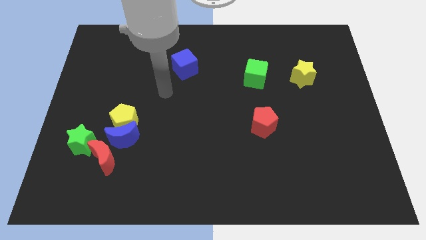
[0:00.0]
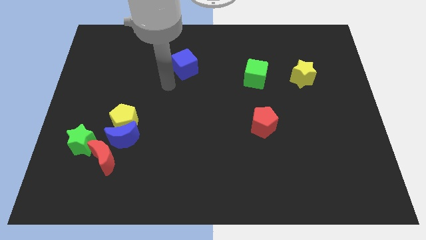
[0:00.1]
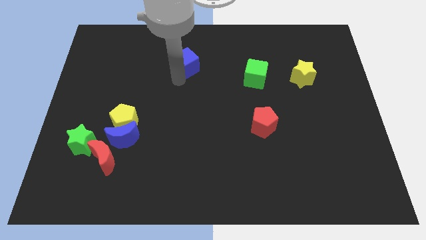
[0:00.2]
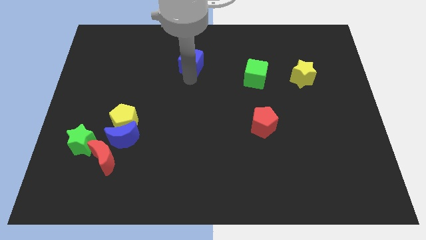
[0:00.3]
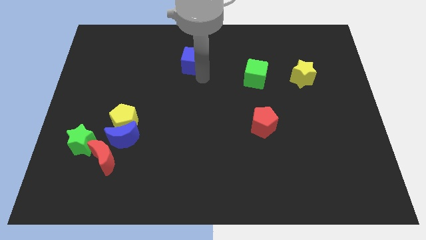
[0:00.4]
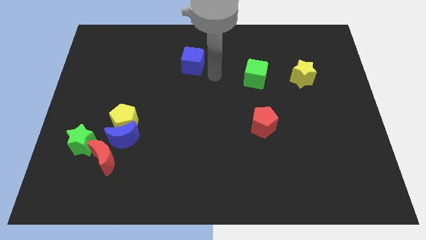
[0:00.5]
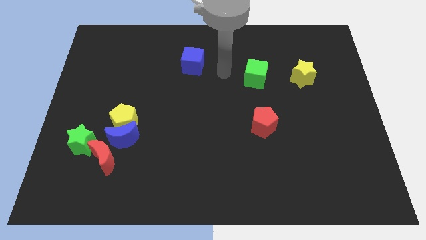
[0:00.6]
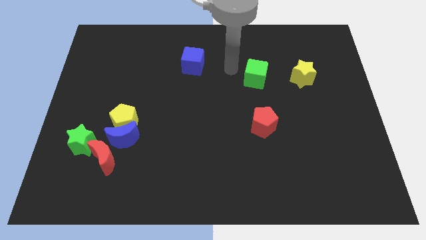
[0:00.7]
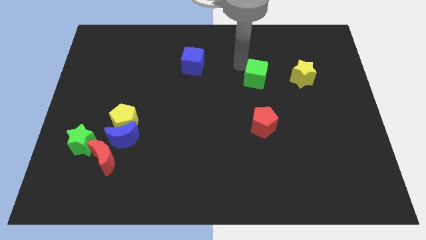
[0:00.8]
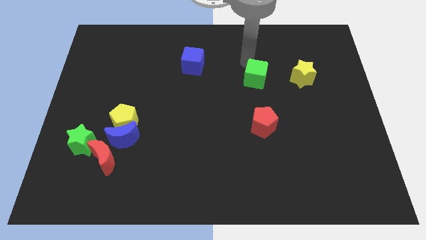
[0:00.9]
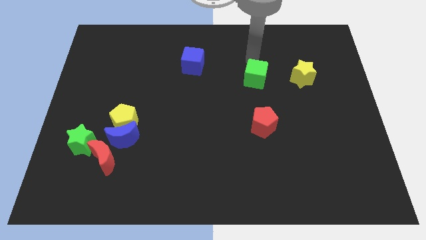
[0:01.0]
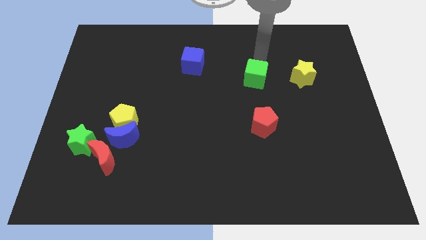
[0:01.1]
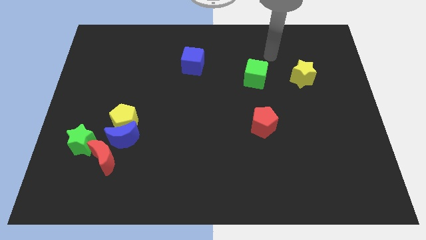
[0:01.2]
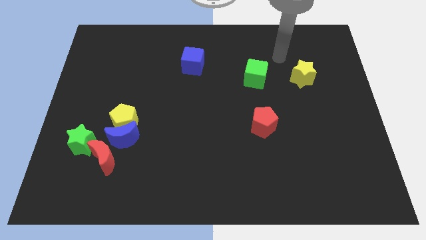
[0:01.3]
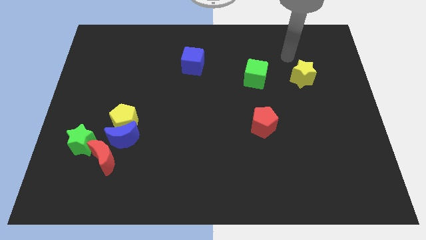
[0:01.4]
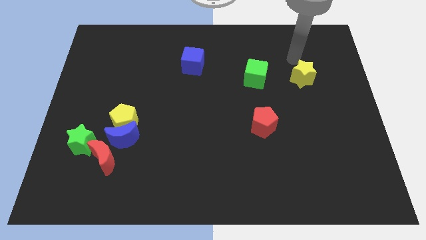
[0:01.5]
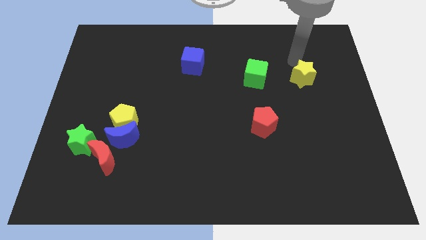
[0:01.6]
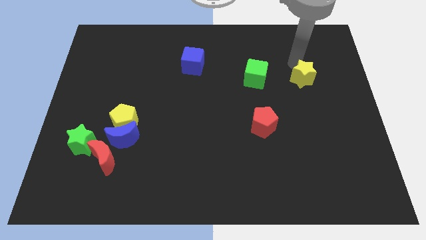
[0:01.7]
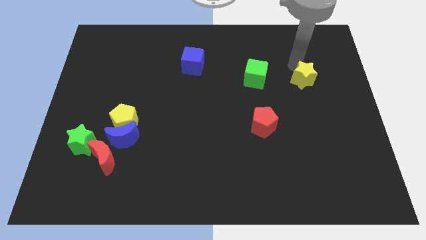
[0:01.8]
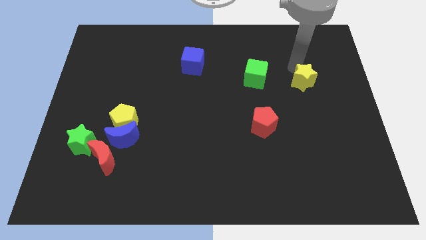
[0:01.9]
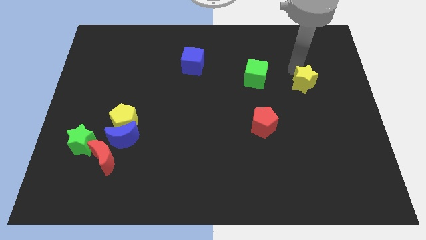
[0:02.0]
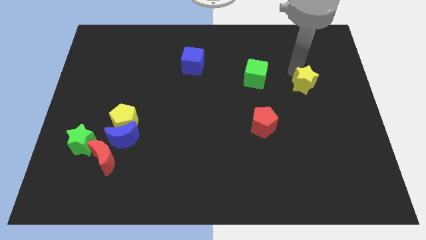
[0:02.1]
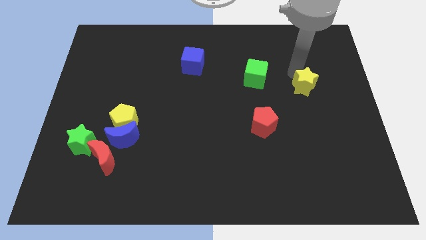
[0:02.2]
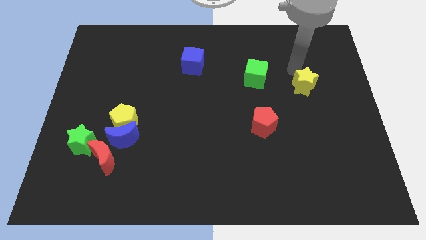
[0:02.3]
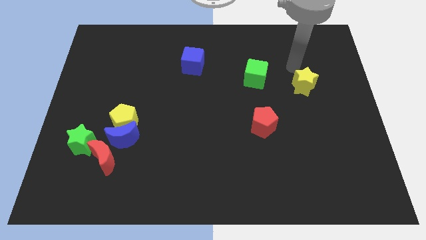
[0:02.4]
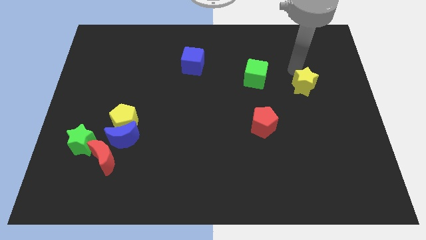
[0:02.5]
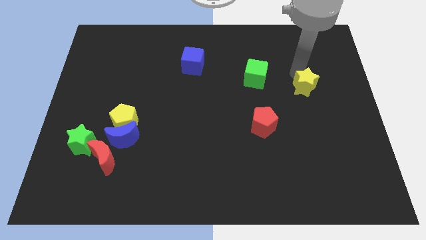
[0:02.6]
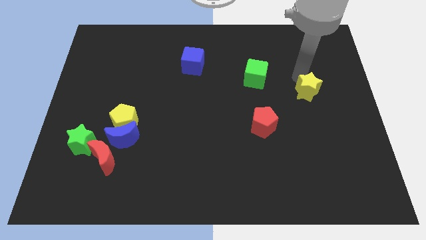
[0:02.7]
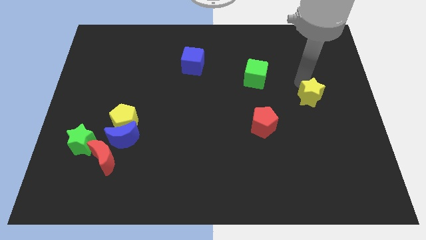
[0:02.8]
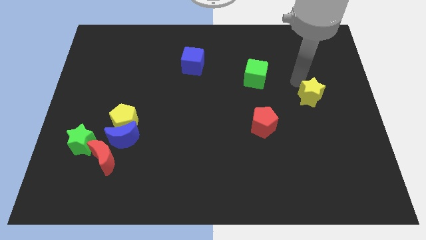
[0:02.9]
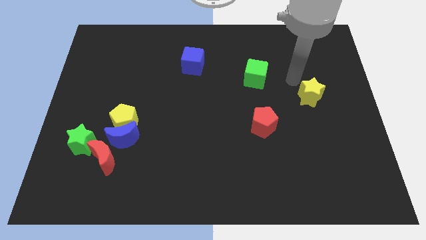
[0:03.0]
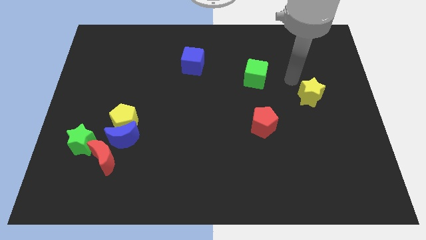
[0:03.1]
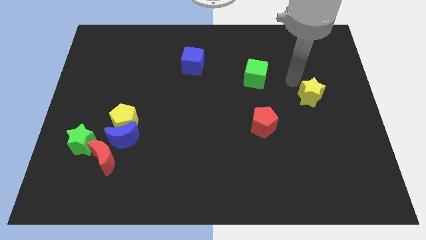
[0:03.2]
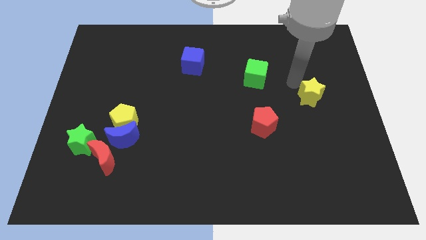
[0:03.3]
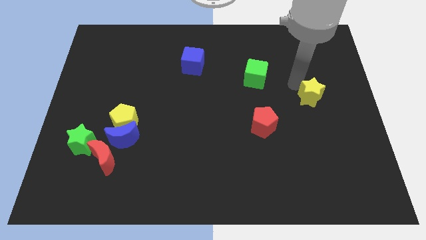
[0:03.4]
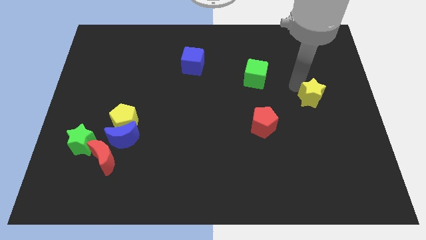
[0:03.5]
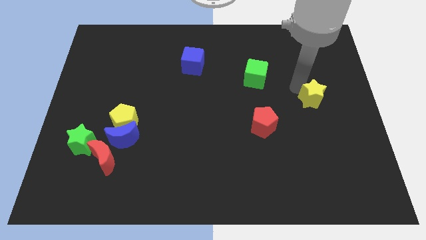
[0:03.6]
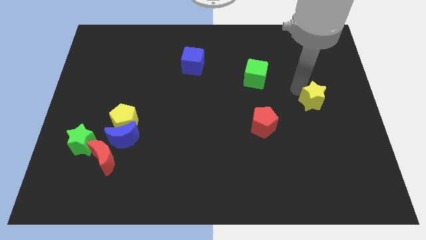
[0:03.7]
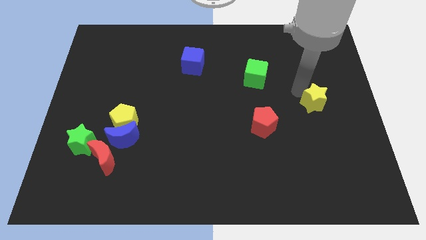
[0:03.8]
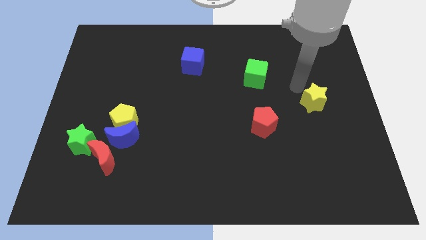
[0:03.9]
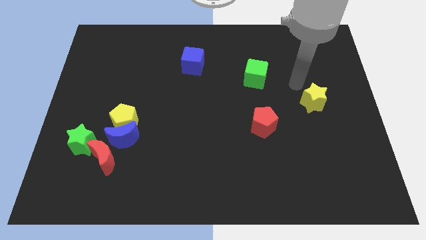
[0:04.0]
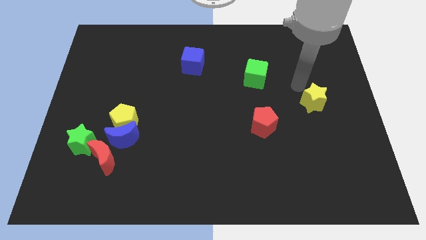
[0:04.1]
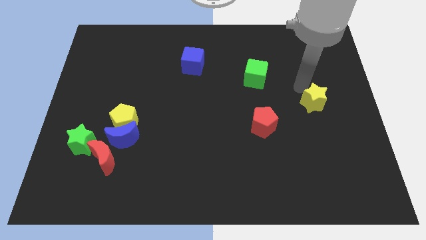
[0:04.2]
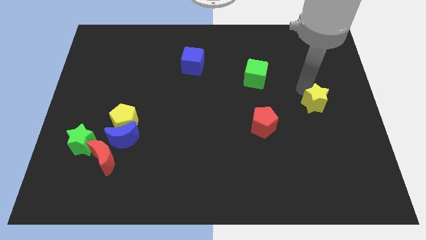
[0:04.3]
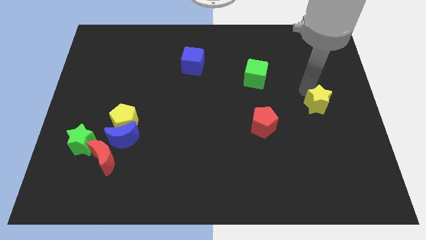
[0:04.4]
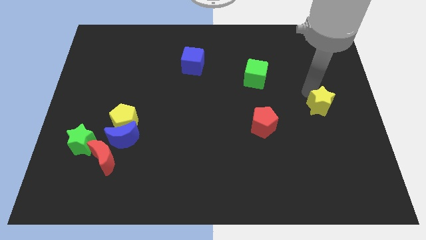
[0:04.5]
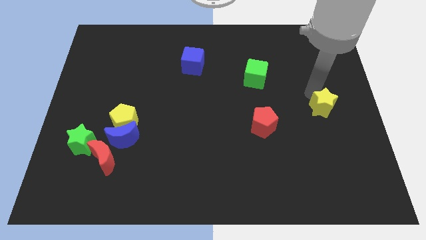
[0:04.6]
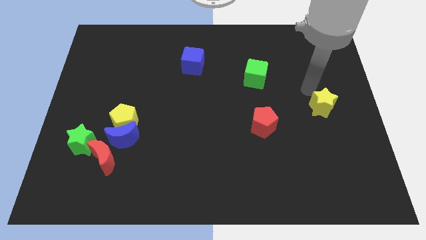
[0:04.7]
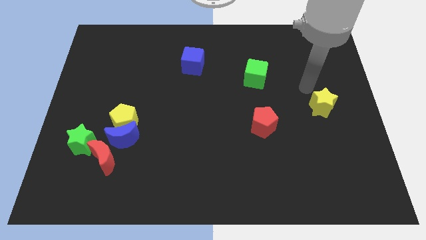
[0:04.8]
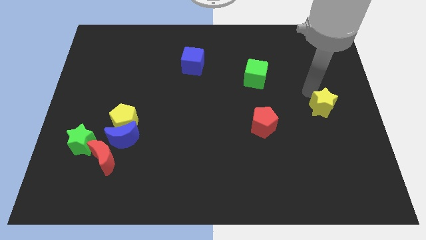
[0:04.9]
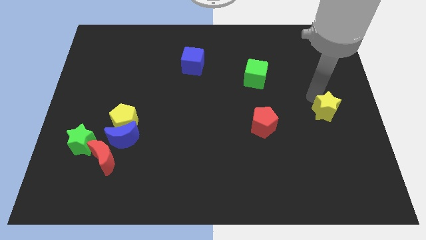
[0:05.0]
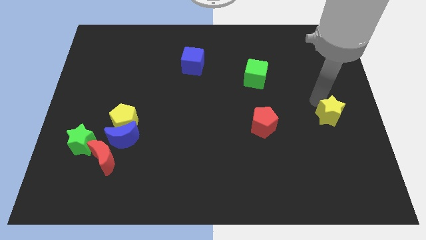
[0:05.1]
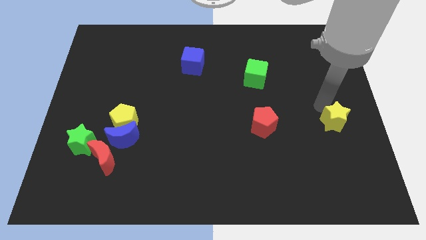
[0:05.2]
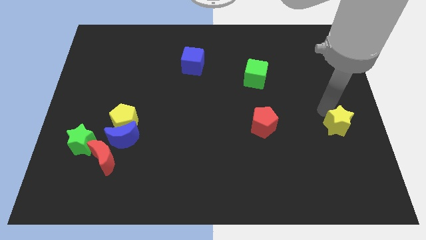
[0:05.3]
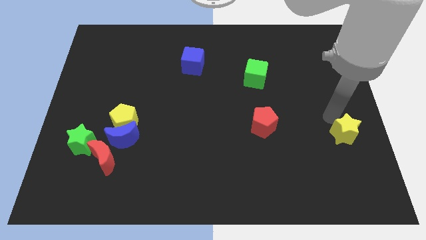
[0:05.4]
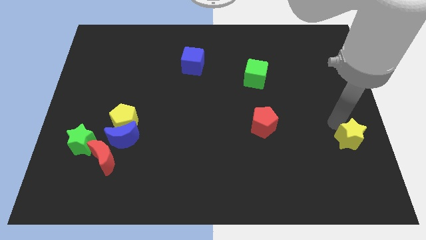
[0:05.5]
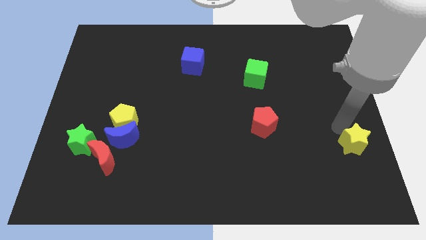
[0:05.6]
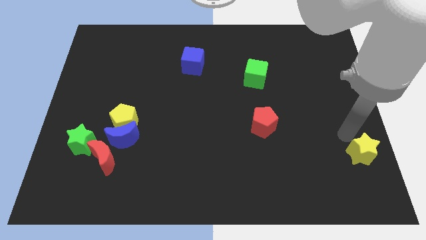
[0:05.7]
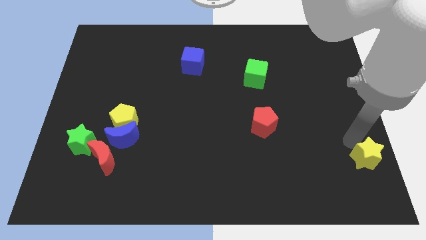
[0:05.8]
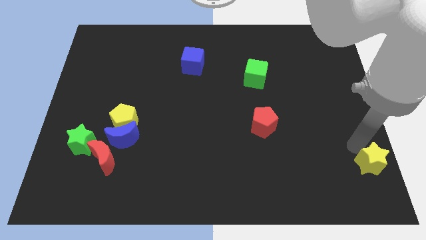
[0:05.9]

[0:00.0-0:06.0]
put the yellow star to the bottom right corner

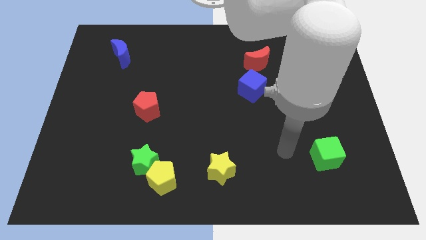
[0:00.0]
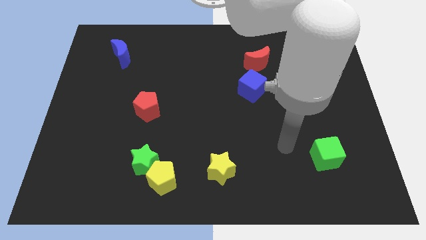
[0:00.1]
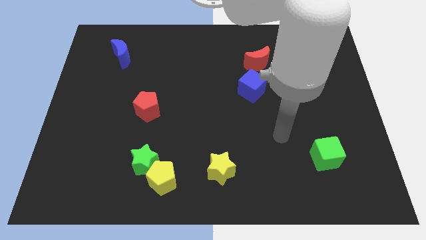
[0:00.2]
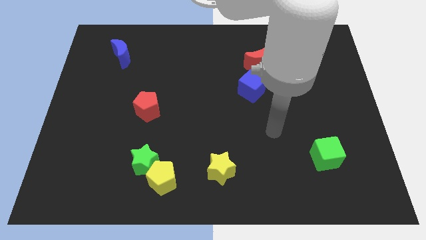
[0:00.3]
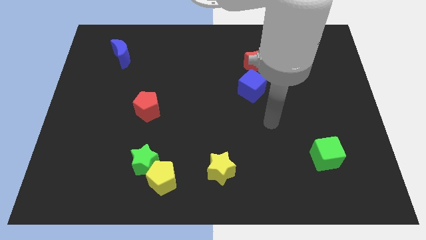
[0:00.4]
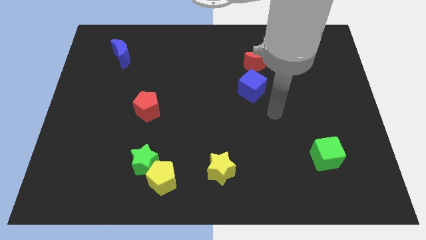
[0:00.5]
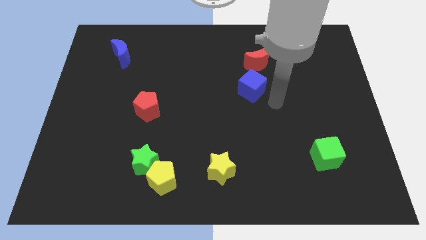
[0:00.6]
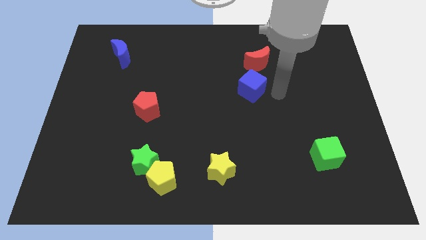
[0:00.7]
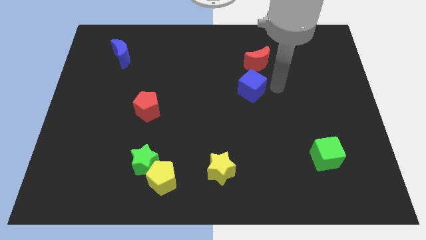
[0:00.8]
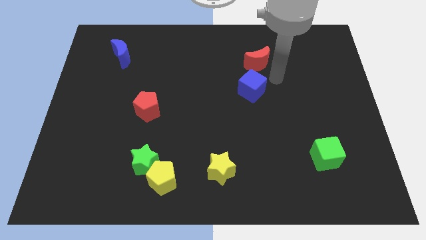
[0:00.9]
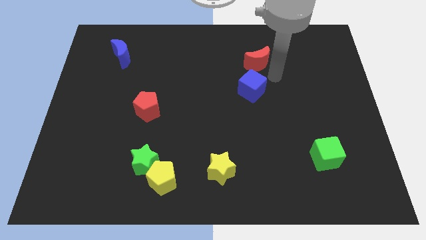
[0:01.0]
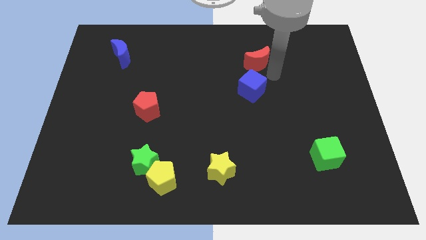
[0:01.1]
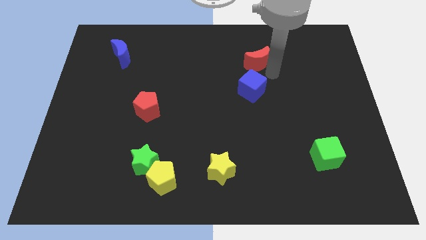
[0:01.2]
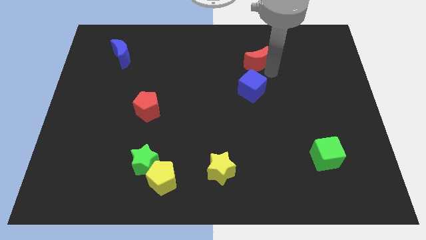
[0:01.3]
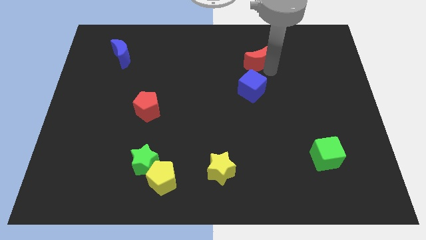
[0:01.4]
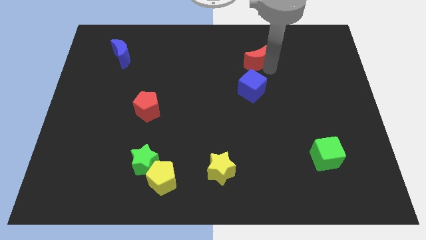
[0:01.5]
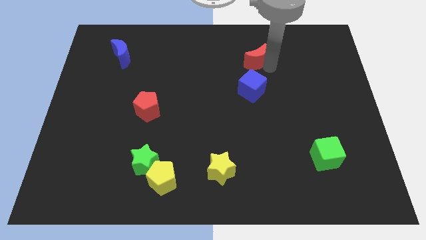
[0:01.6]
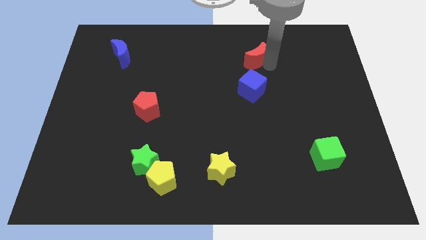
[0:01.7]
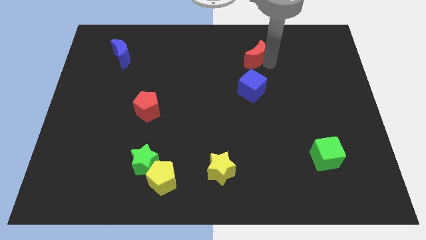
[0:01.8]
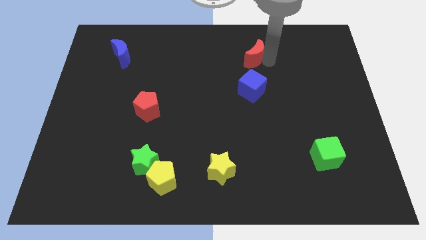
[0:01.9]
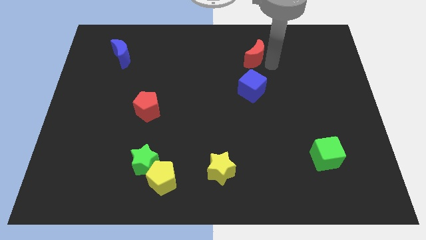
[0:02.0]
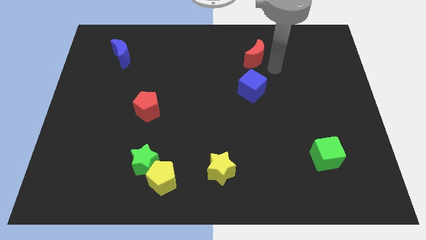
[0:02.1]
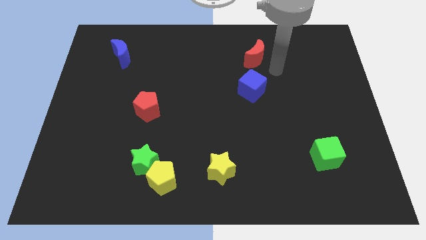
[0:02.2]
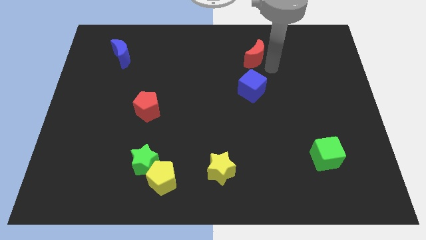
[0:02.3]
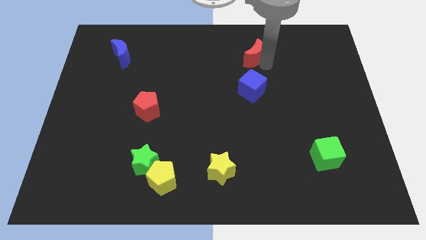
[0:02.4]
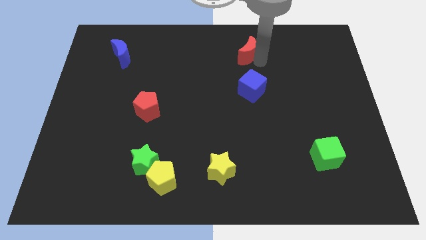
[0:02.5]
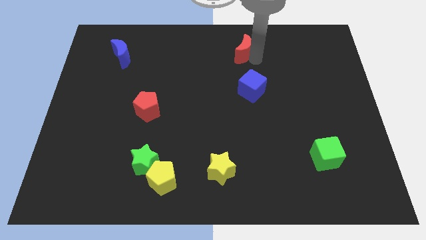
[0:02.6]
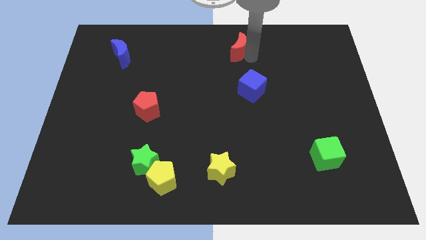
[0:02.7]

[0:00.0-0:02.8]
slide the red moon to the towards your base
